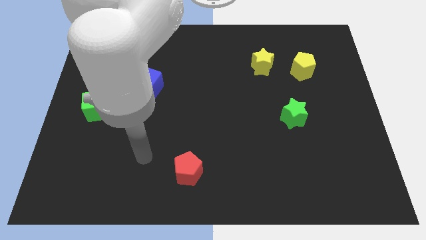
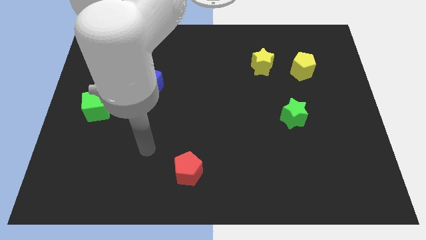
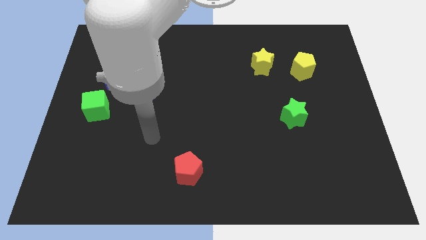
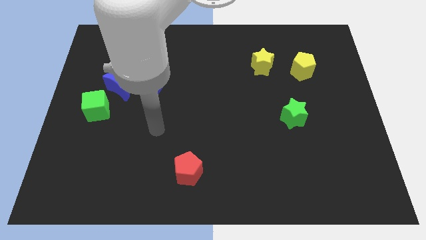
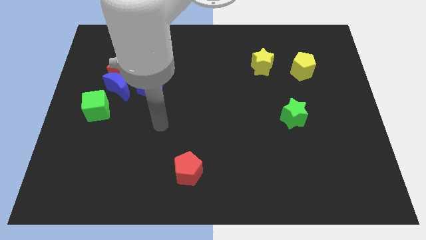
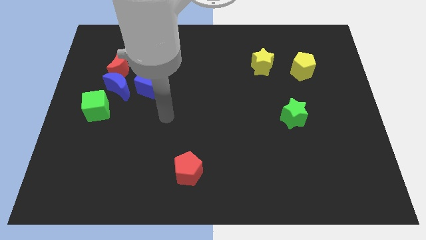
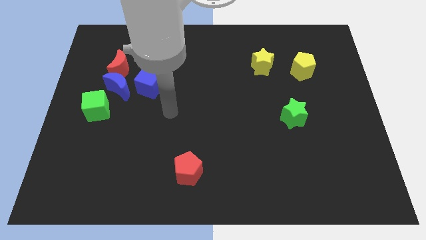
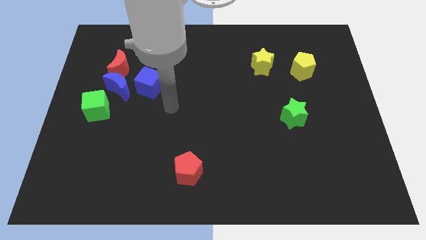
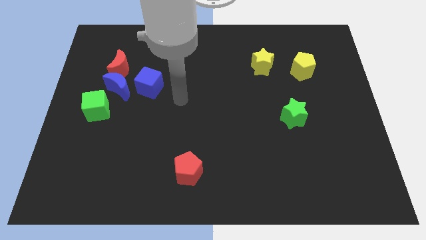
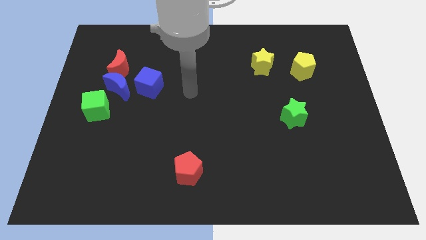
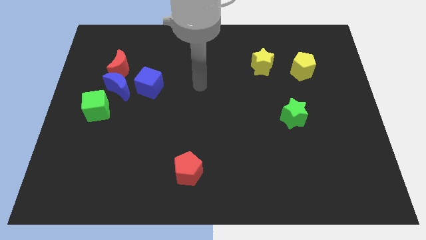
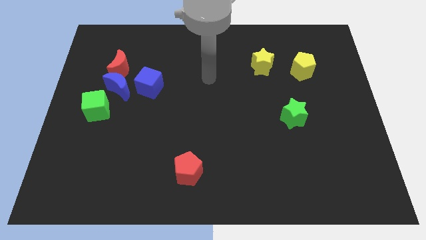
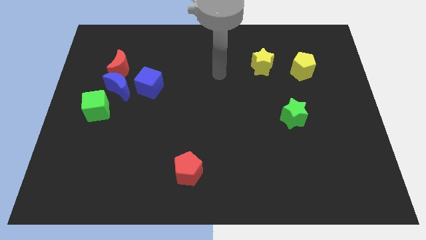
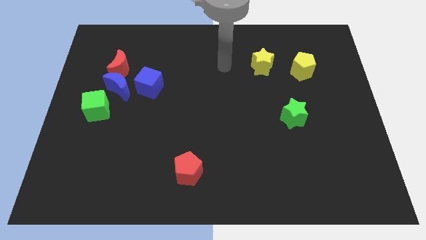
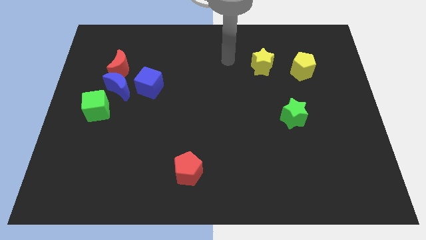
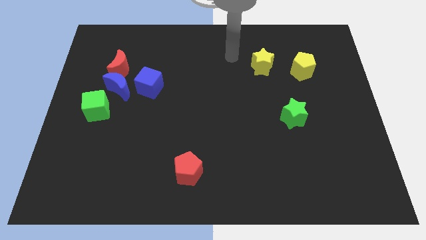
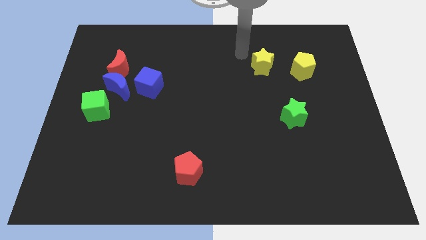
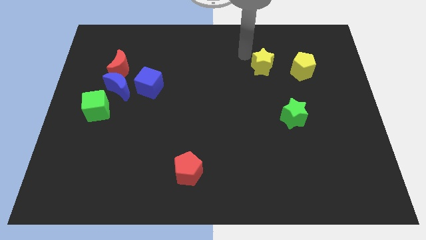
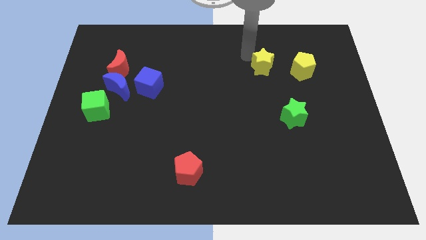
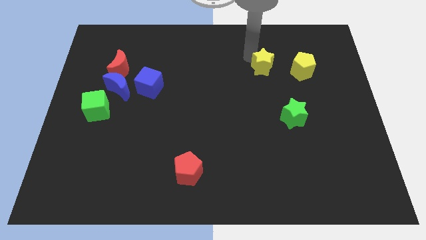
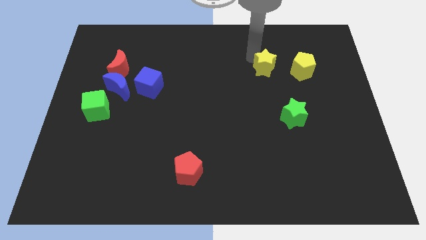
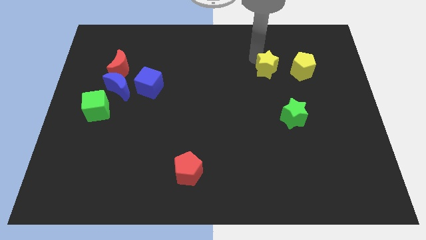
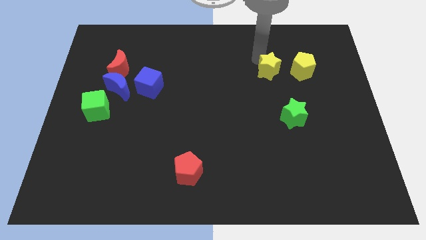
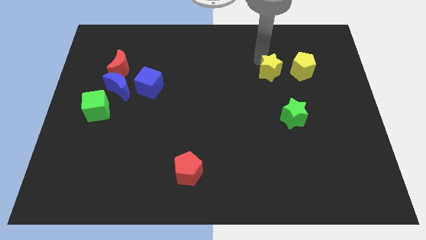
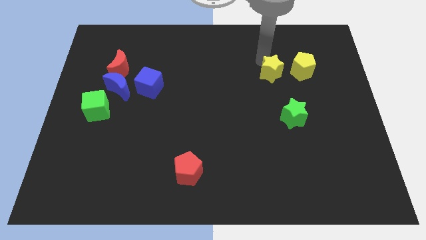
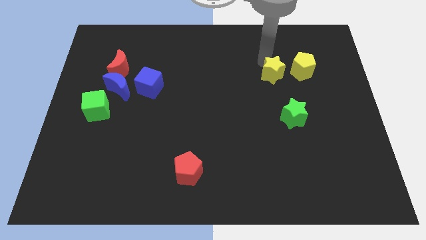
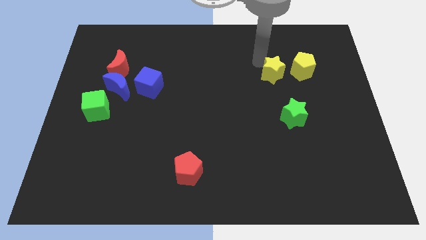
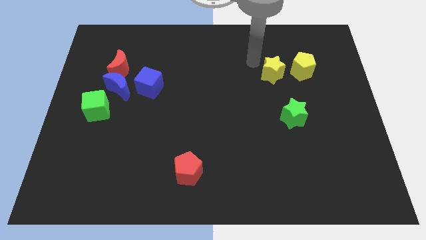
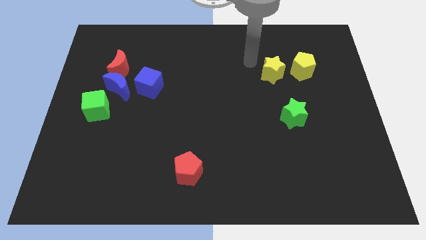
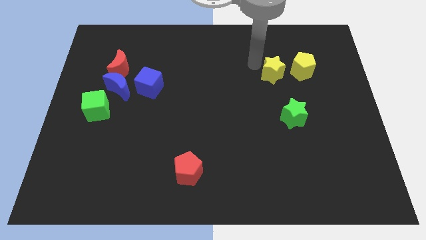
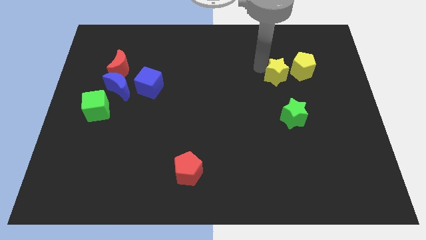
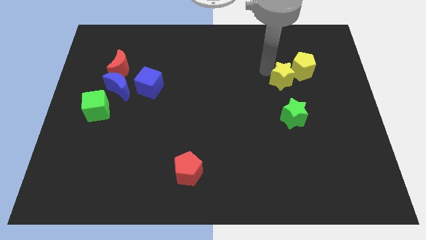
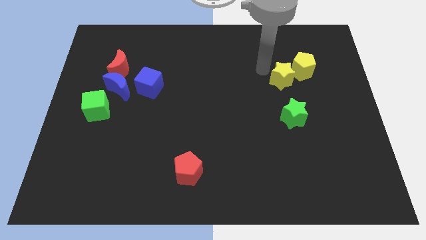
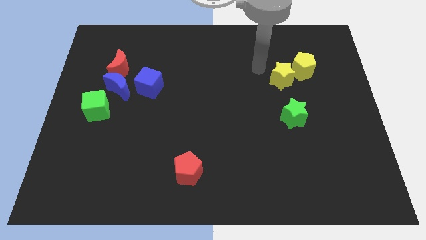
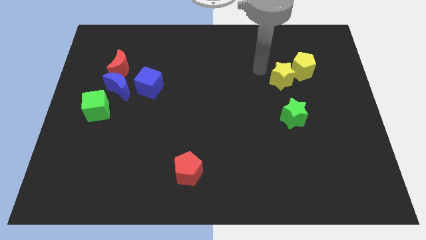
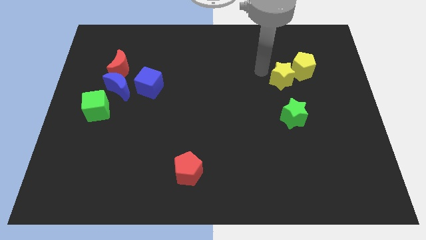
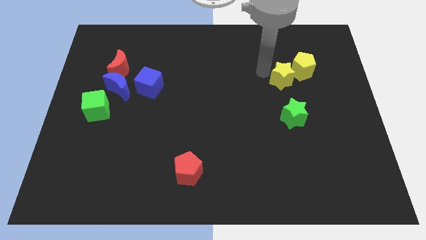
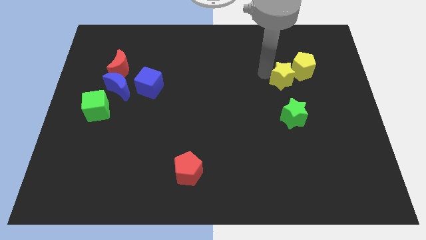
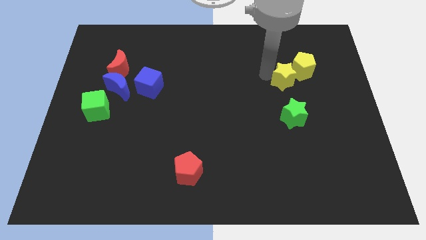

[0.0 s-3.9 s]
push the yellow star a bit diagonally down and right

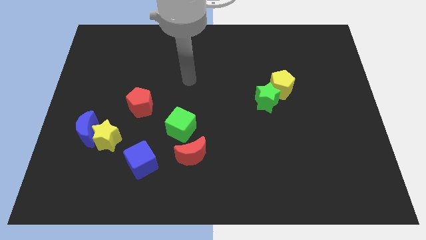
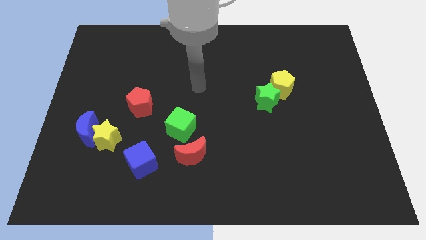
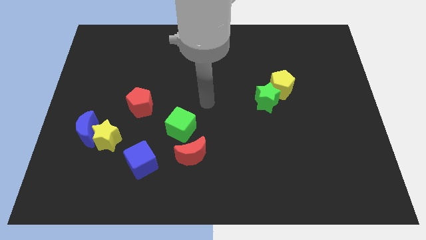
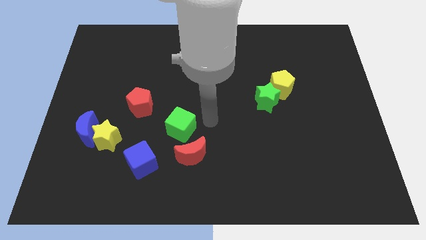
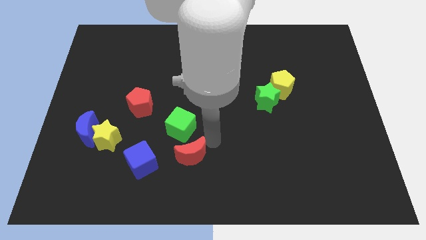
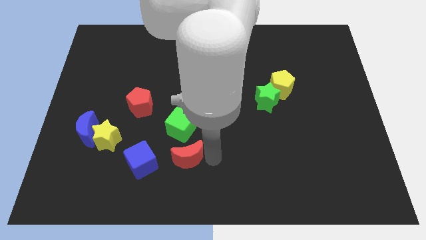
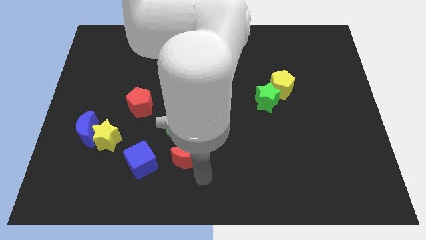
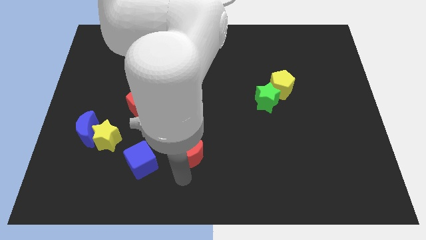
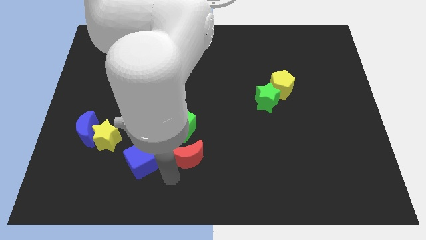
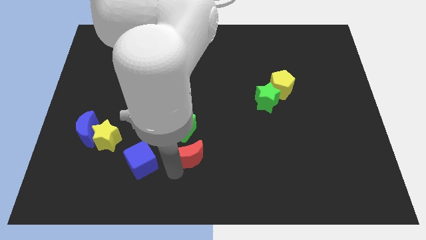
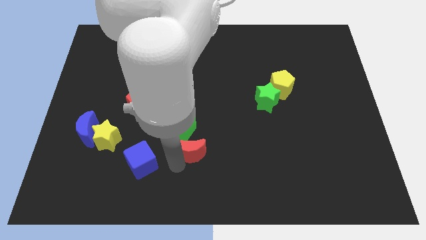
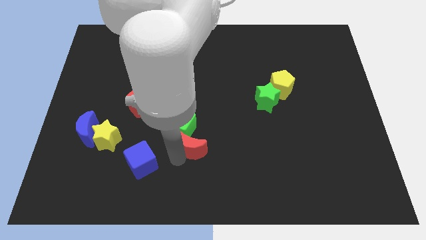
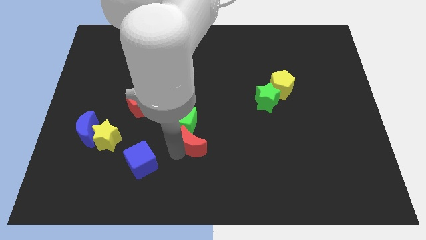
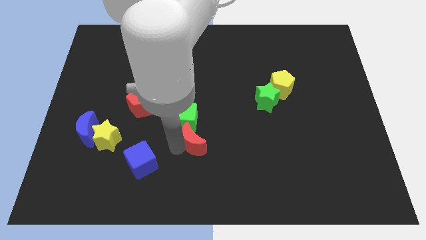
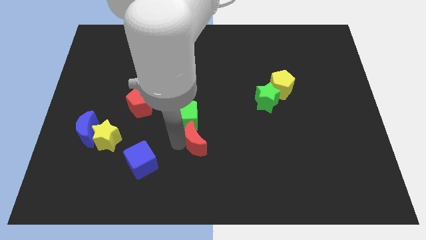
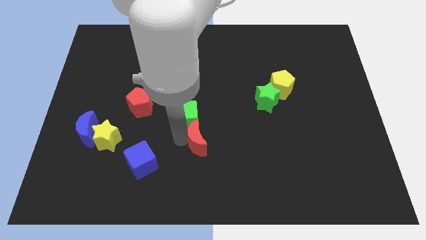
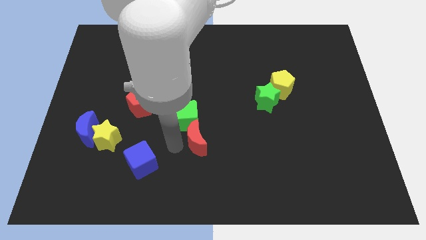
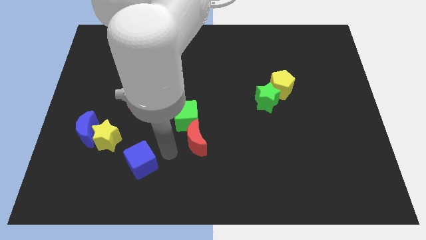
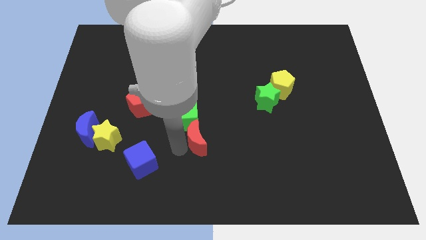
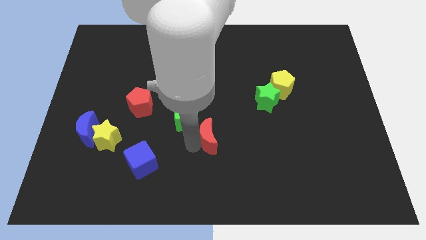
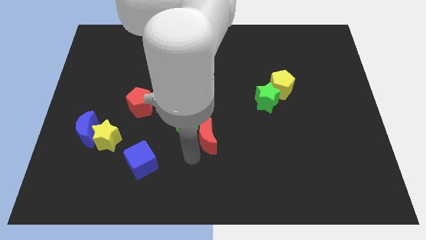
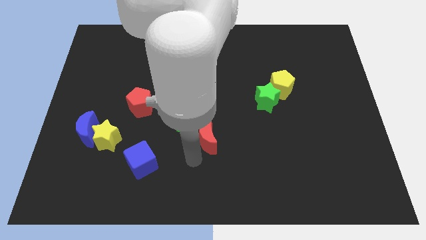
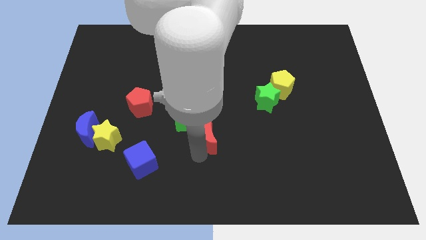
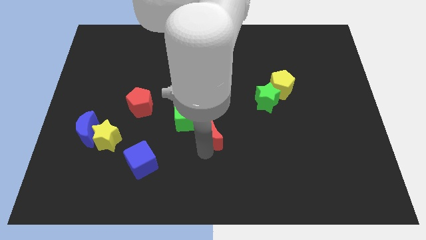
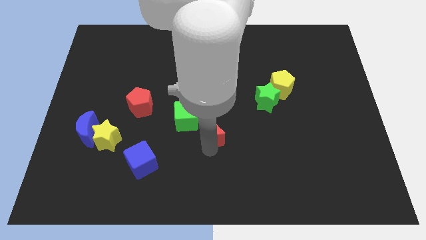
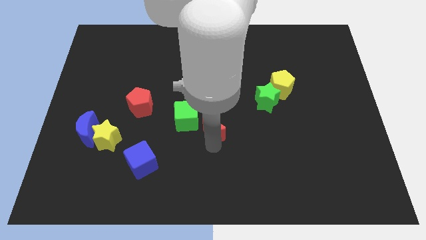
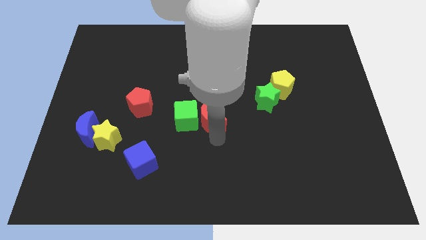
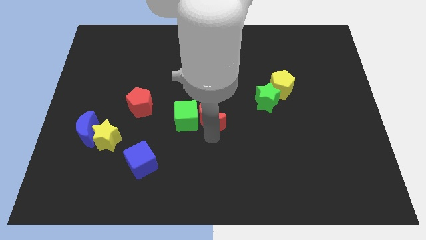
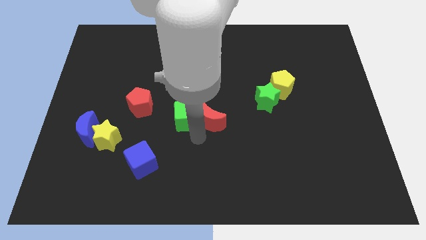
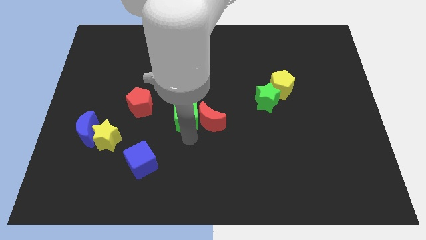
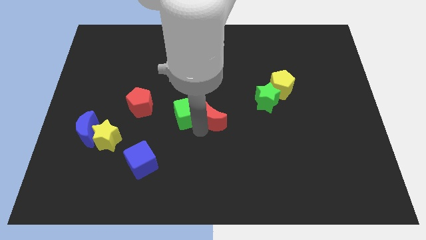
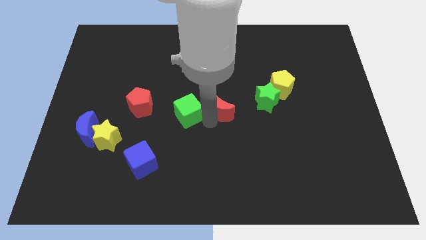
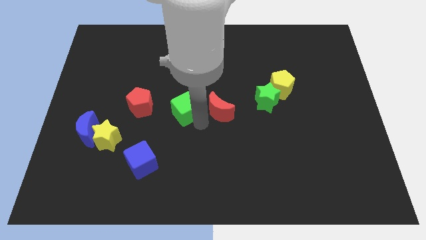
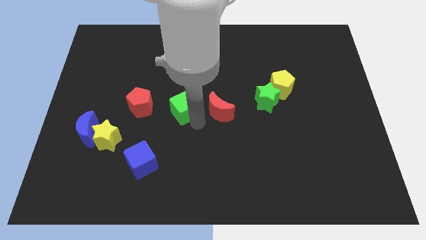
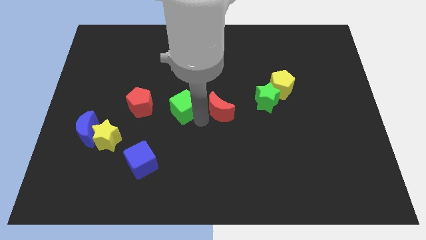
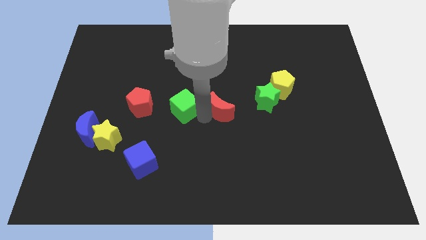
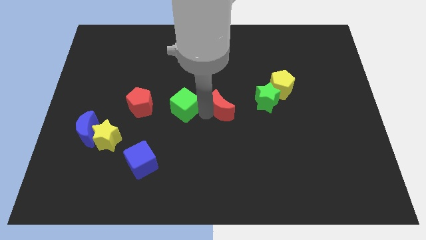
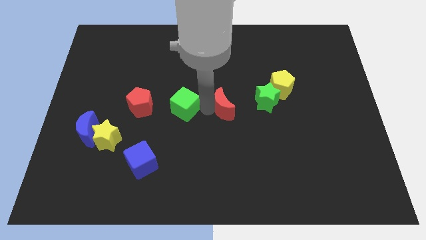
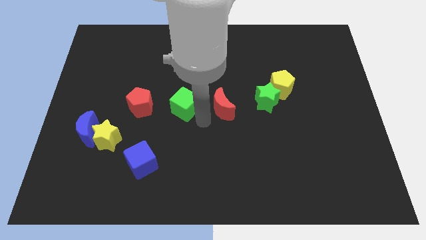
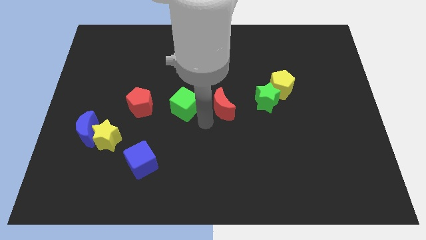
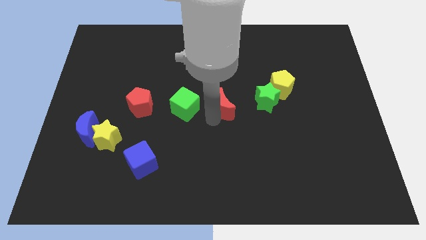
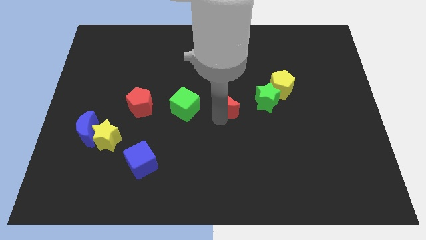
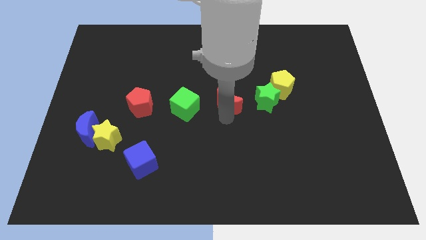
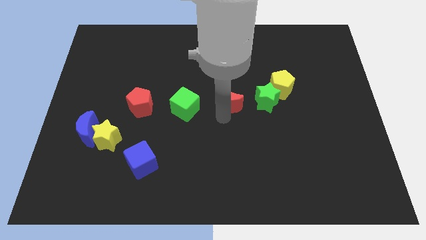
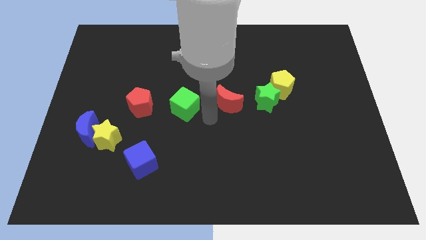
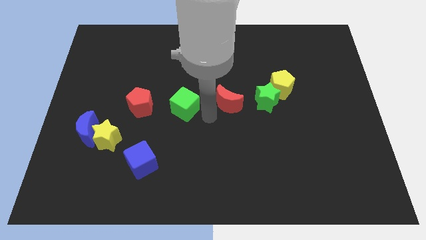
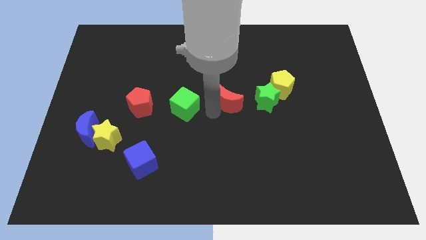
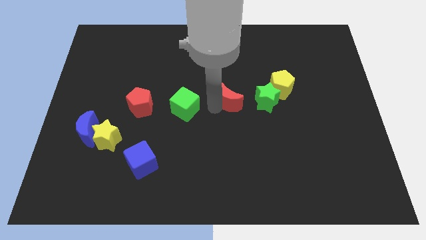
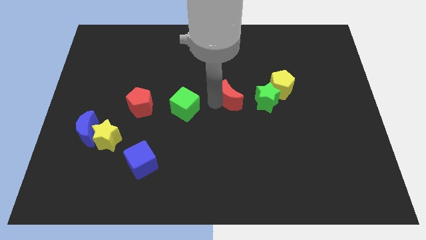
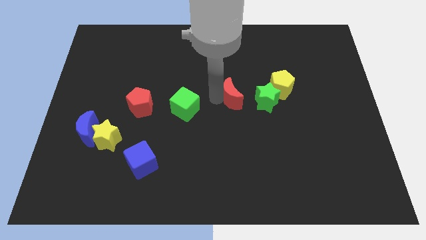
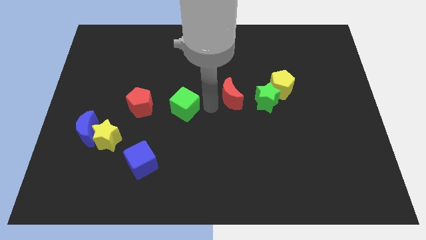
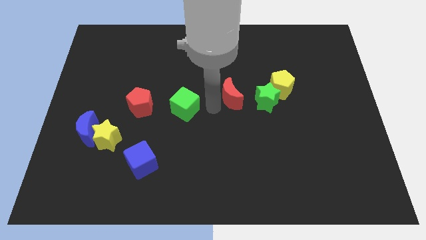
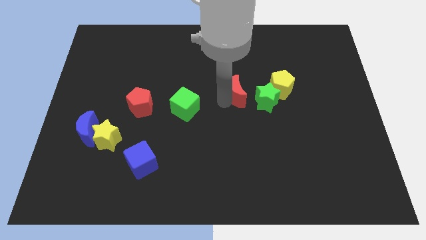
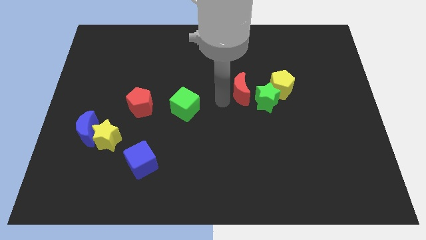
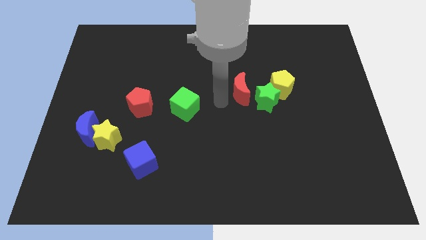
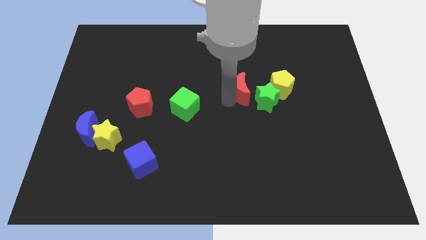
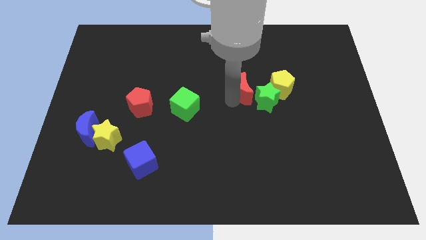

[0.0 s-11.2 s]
move the red moon up and right diagonally
